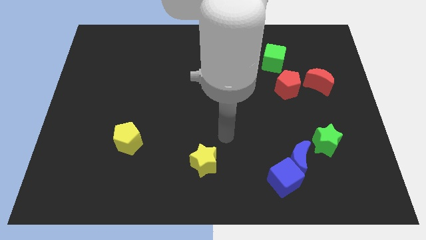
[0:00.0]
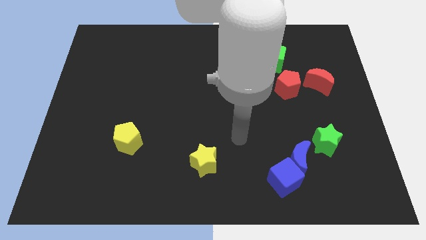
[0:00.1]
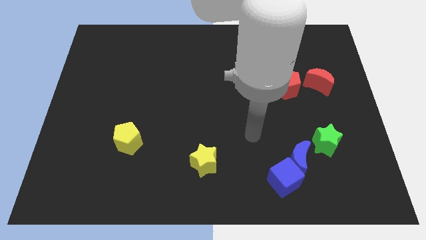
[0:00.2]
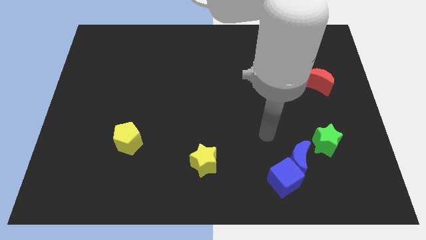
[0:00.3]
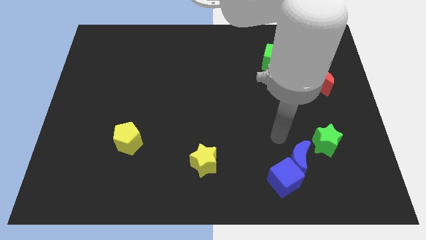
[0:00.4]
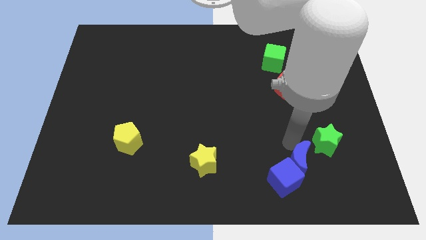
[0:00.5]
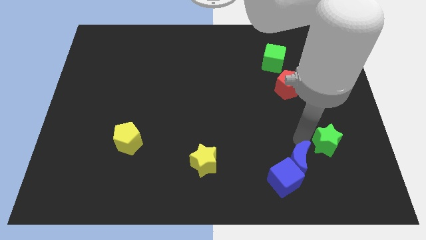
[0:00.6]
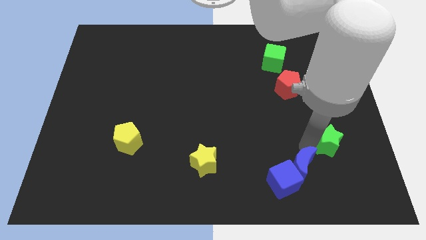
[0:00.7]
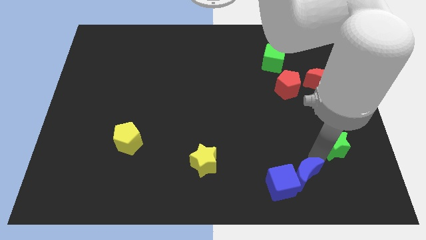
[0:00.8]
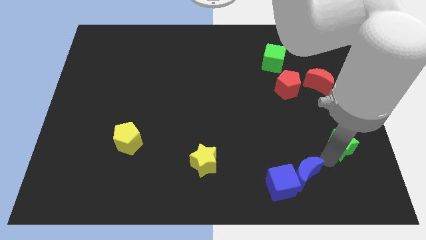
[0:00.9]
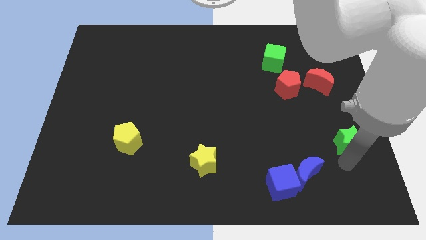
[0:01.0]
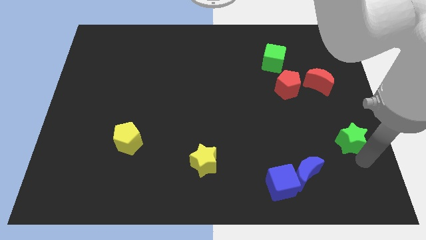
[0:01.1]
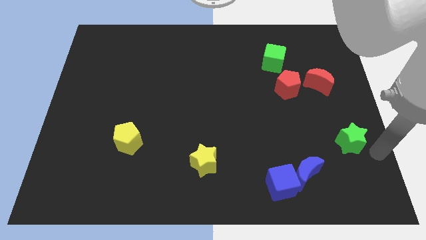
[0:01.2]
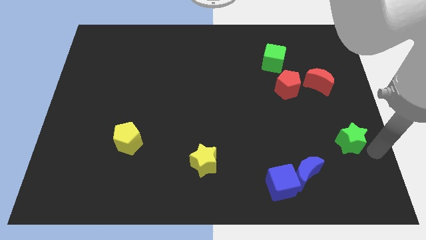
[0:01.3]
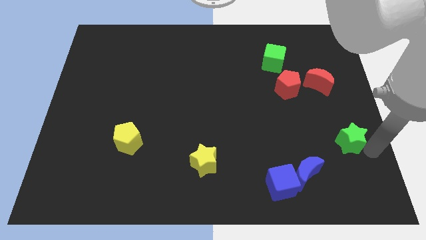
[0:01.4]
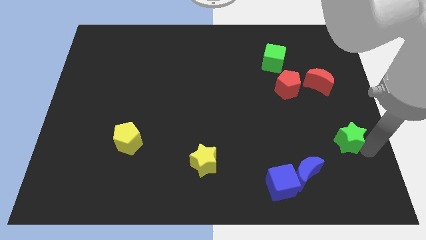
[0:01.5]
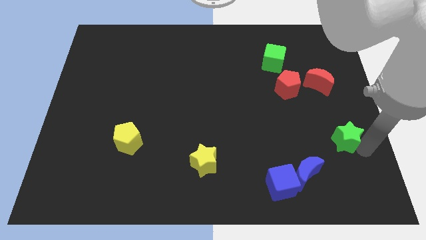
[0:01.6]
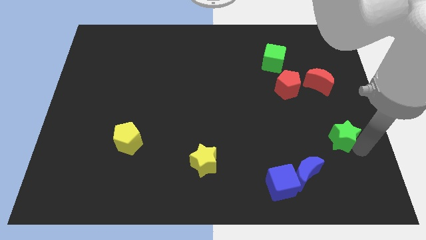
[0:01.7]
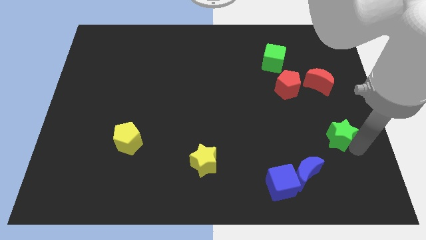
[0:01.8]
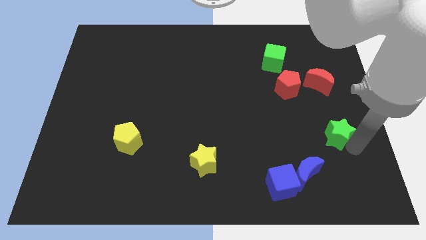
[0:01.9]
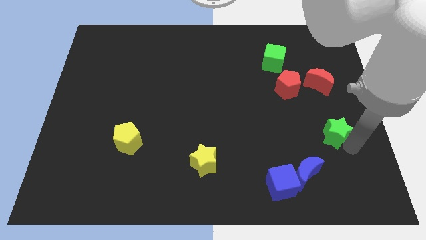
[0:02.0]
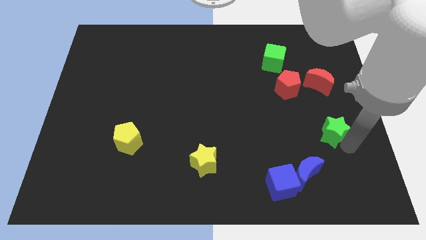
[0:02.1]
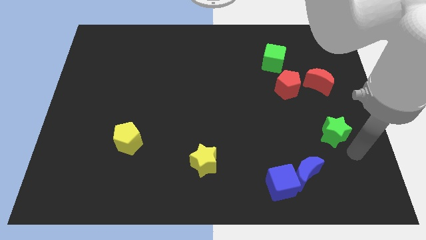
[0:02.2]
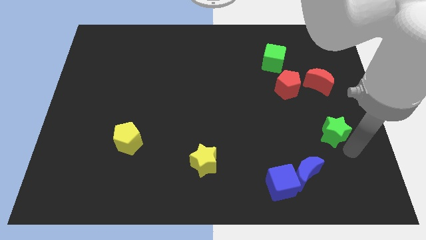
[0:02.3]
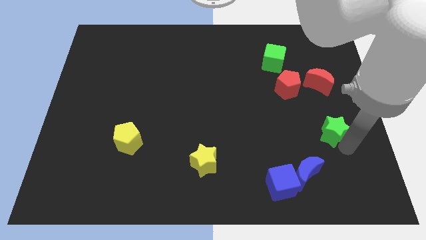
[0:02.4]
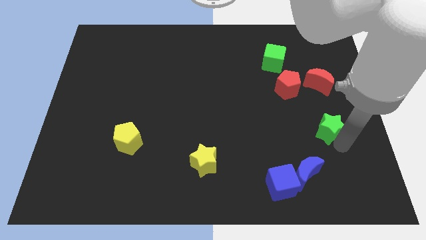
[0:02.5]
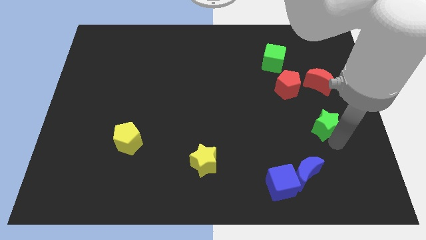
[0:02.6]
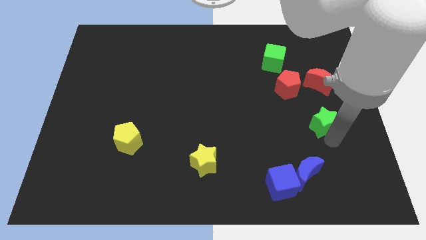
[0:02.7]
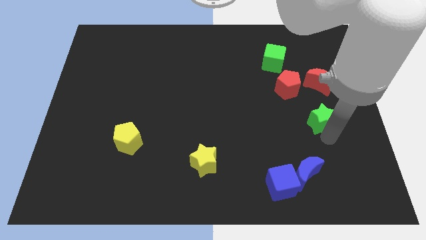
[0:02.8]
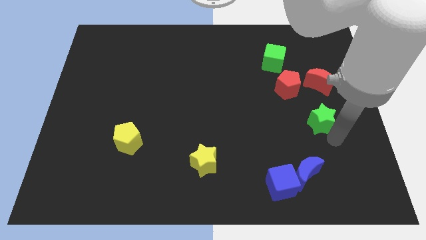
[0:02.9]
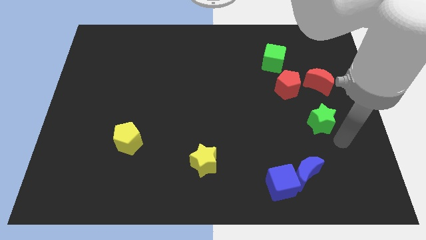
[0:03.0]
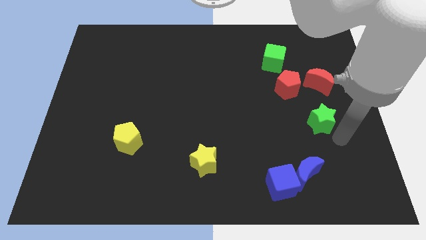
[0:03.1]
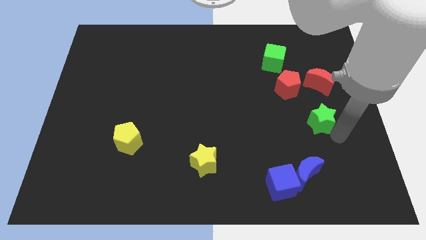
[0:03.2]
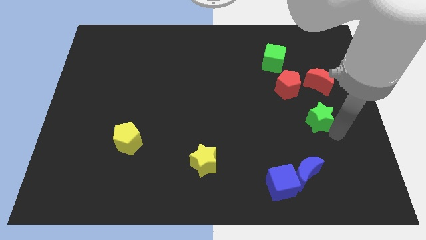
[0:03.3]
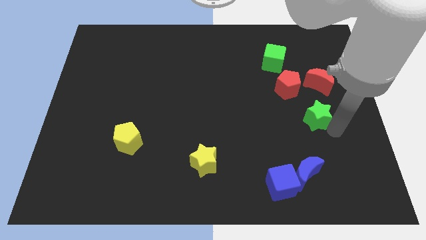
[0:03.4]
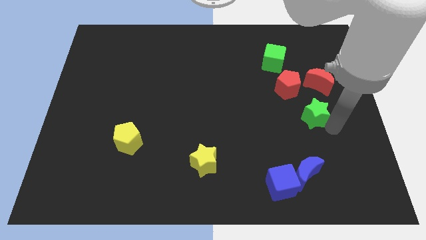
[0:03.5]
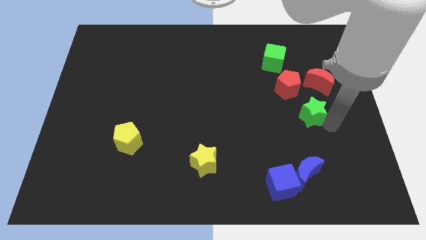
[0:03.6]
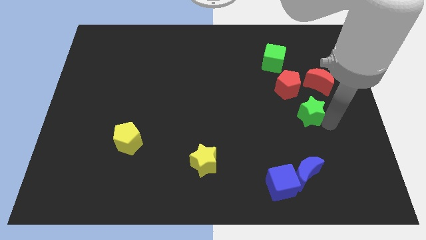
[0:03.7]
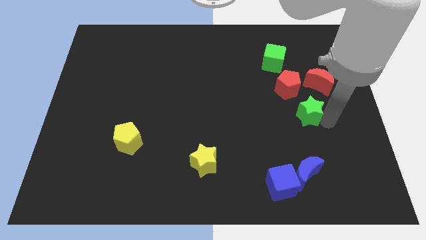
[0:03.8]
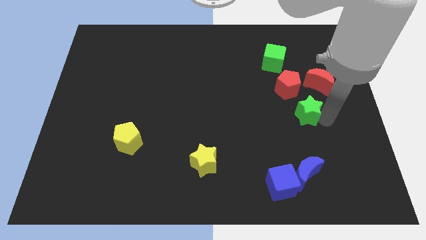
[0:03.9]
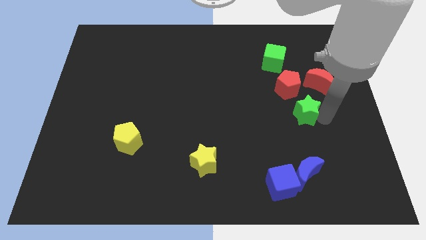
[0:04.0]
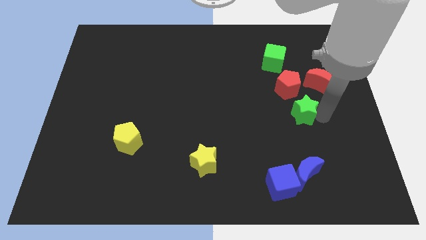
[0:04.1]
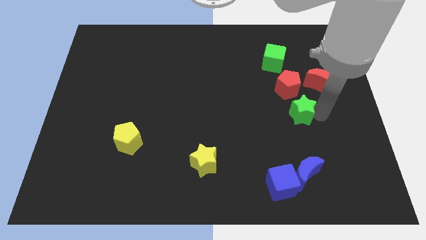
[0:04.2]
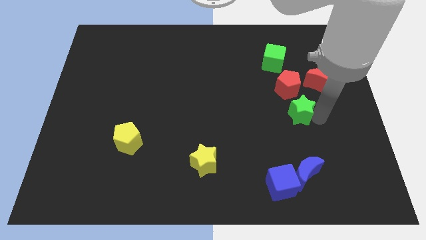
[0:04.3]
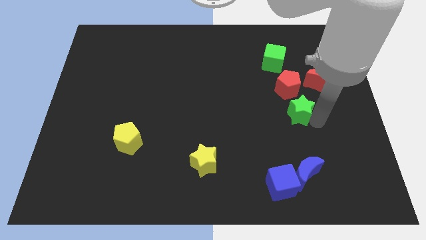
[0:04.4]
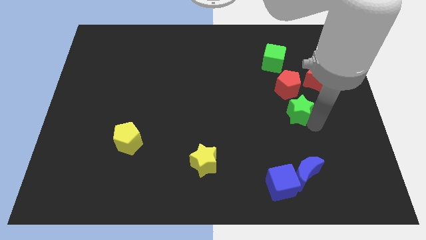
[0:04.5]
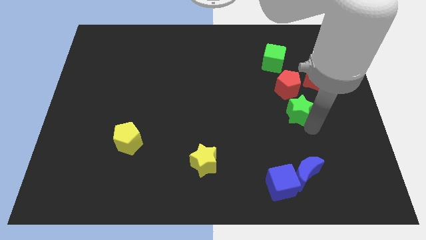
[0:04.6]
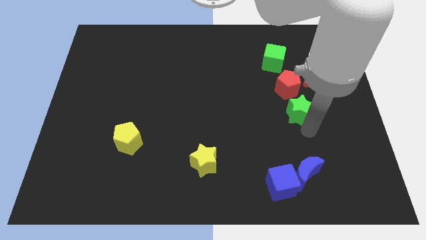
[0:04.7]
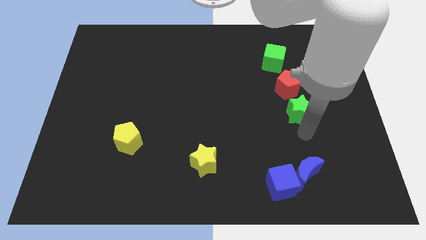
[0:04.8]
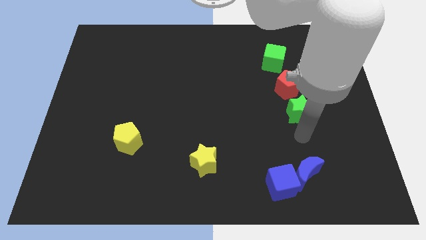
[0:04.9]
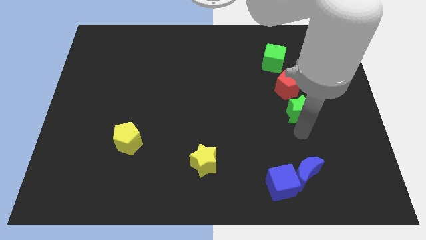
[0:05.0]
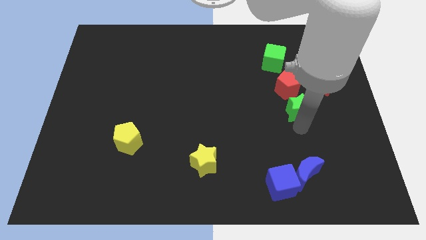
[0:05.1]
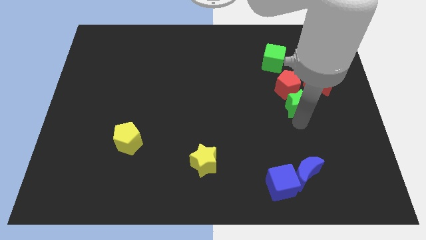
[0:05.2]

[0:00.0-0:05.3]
put the green star towards the red pentagon

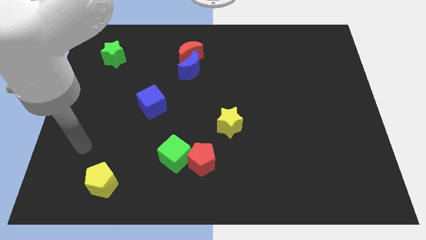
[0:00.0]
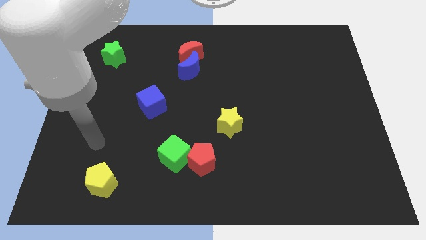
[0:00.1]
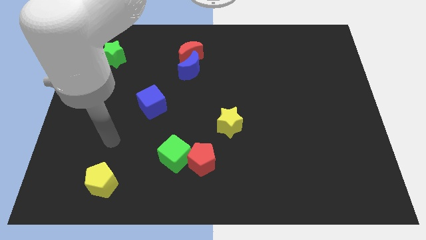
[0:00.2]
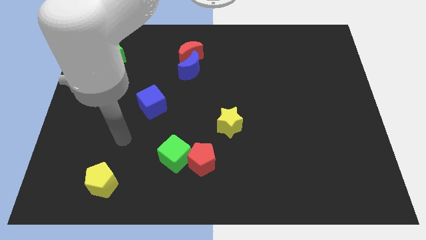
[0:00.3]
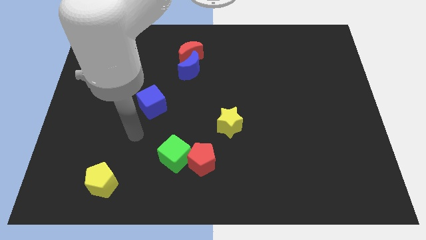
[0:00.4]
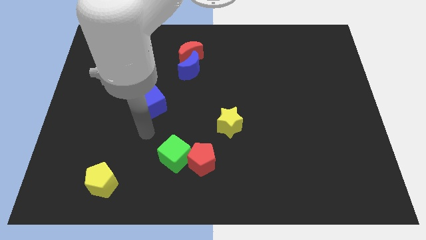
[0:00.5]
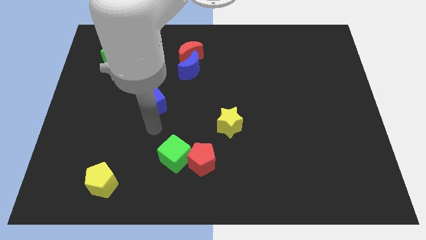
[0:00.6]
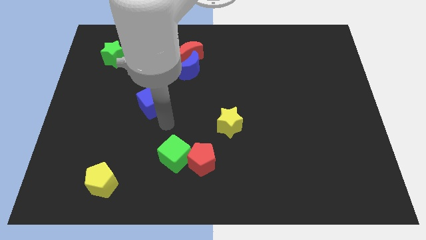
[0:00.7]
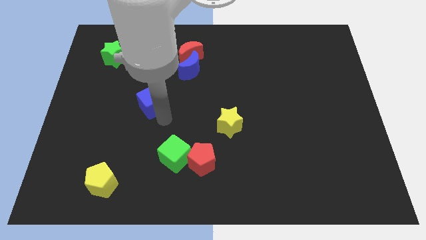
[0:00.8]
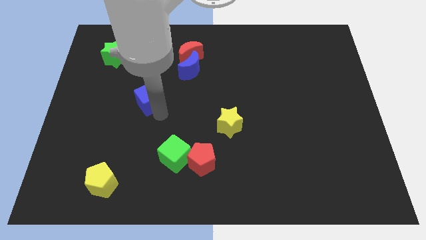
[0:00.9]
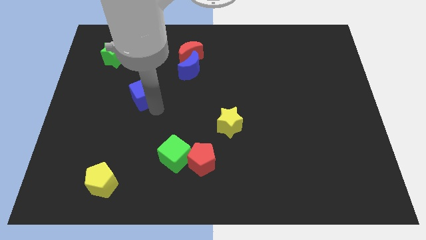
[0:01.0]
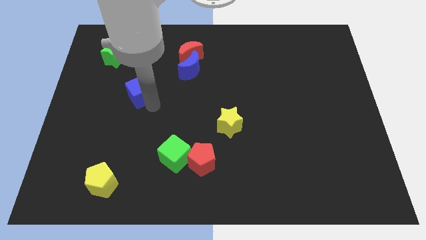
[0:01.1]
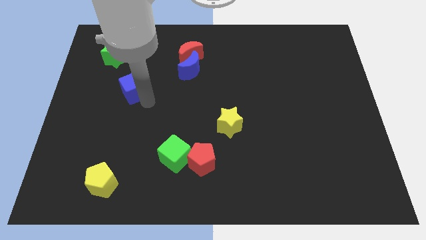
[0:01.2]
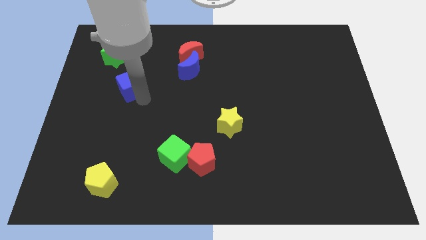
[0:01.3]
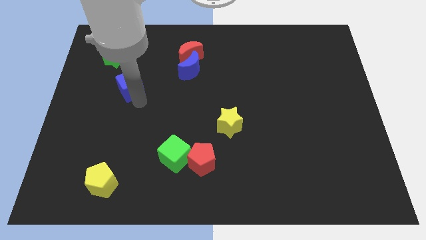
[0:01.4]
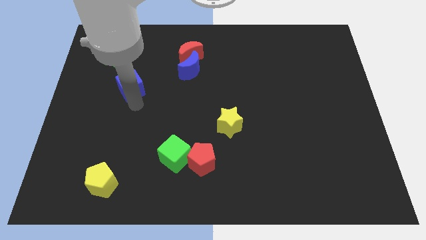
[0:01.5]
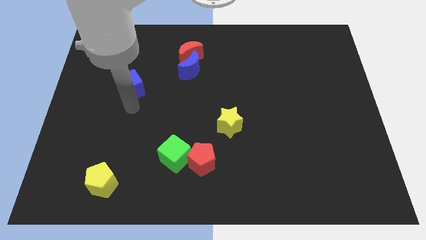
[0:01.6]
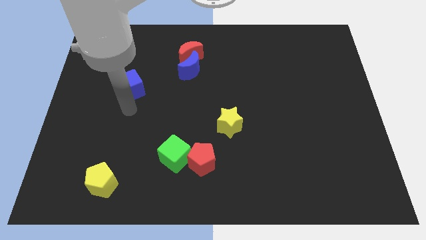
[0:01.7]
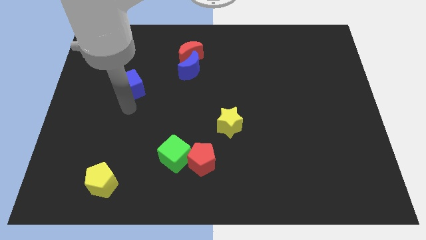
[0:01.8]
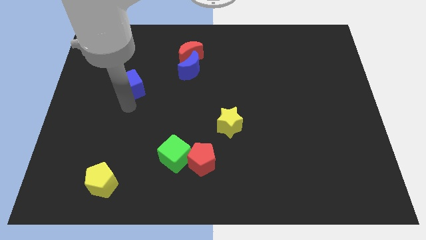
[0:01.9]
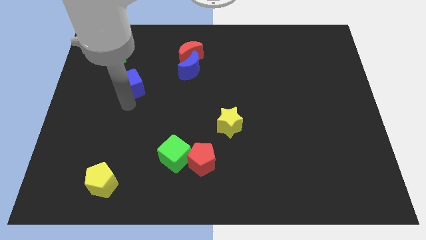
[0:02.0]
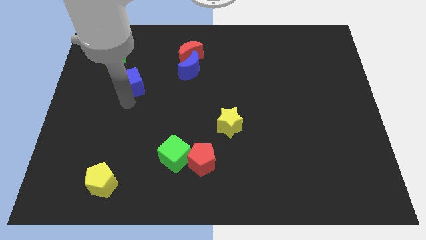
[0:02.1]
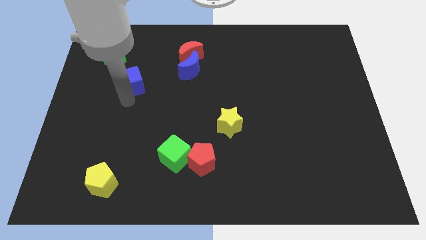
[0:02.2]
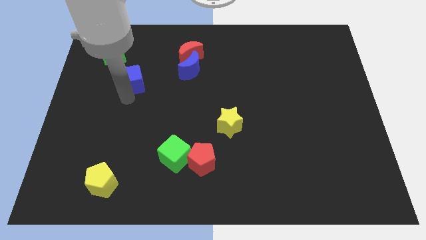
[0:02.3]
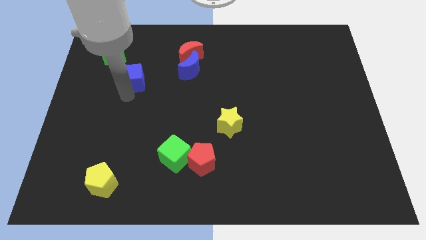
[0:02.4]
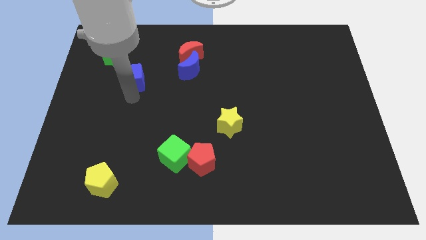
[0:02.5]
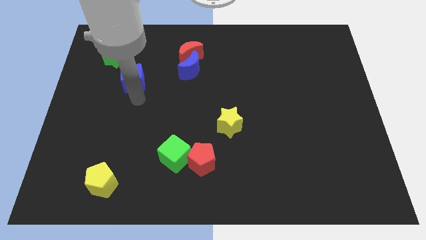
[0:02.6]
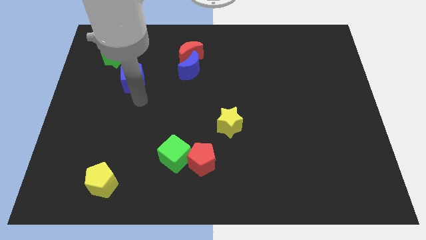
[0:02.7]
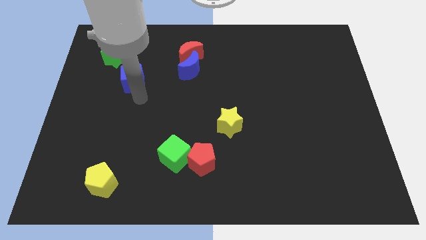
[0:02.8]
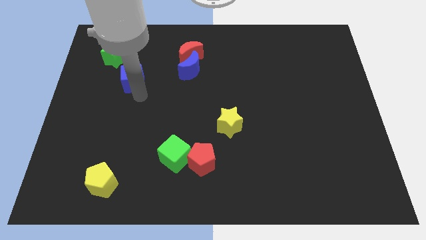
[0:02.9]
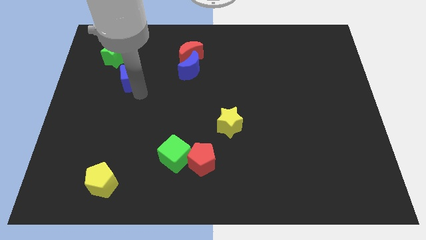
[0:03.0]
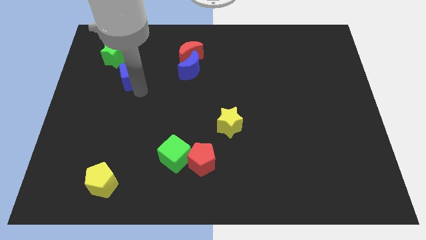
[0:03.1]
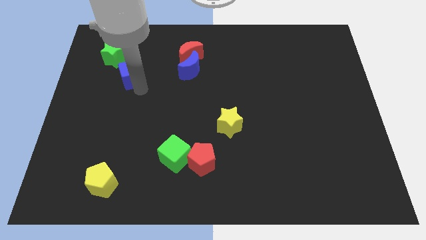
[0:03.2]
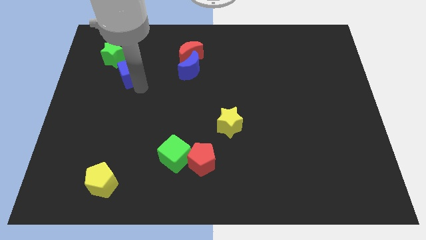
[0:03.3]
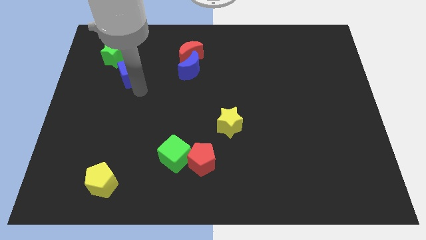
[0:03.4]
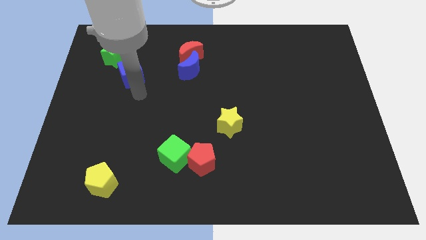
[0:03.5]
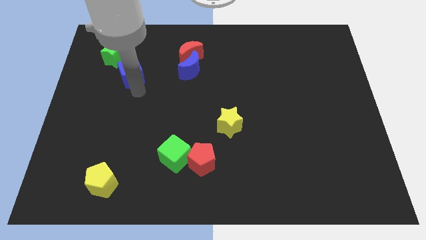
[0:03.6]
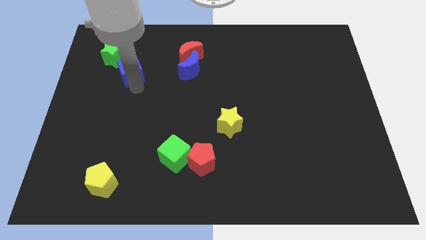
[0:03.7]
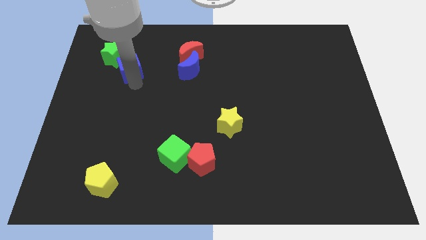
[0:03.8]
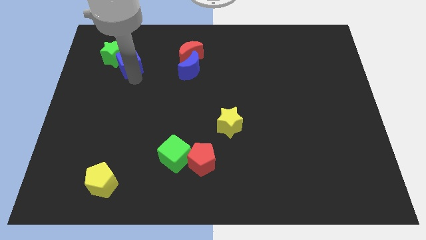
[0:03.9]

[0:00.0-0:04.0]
move the blue cube next to the green star
